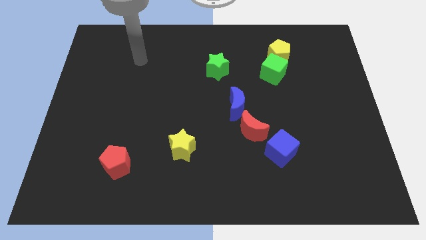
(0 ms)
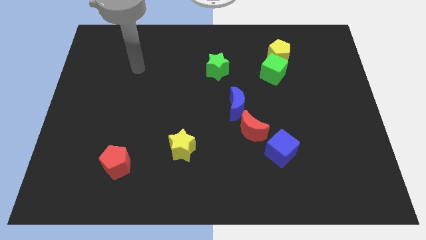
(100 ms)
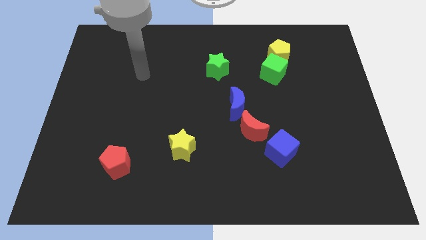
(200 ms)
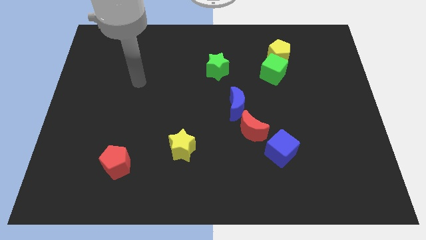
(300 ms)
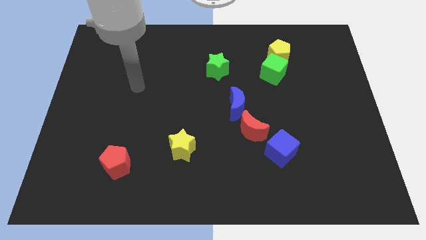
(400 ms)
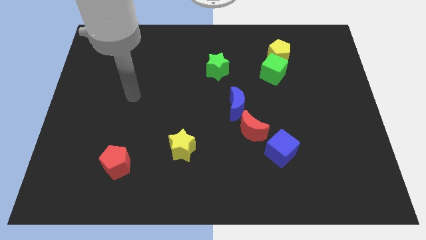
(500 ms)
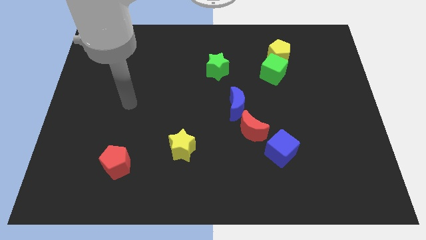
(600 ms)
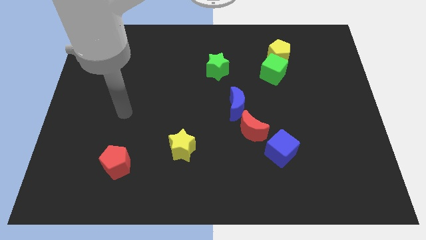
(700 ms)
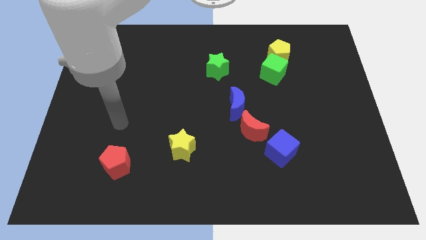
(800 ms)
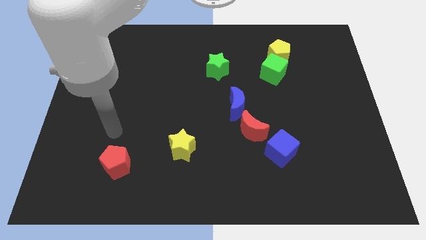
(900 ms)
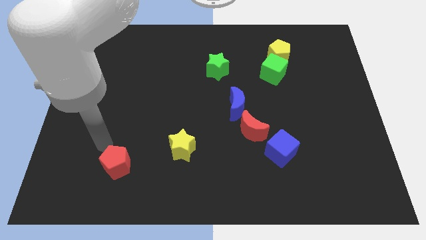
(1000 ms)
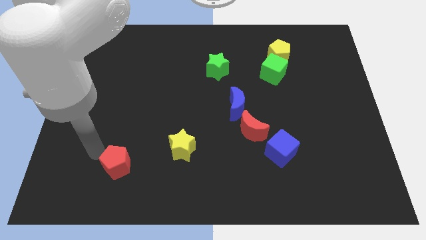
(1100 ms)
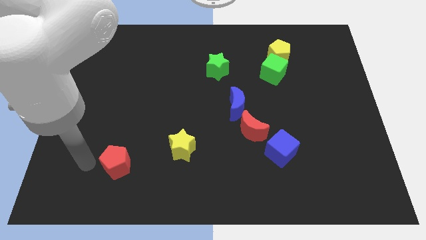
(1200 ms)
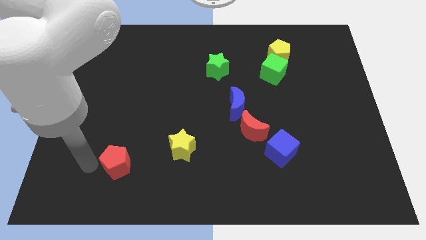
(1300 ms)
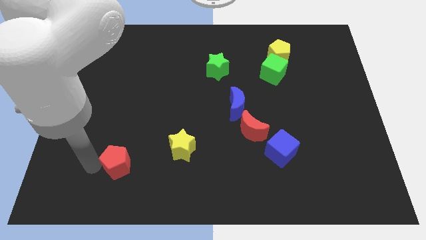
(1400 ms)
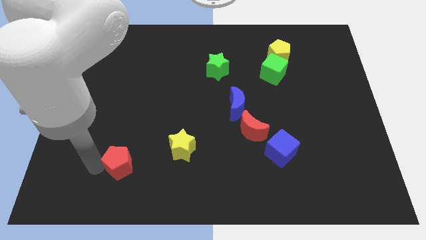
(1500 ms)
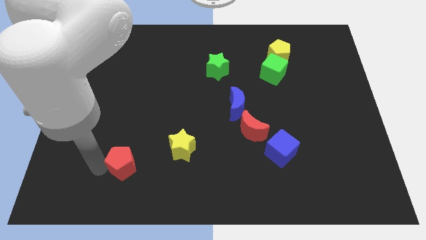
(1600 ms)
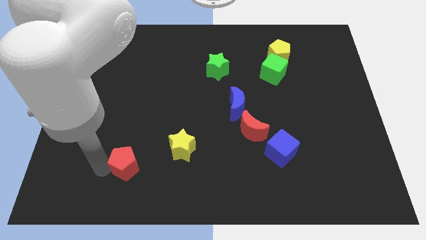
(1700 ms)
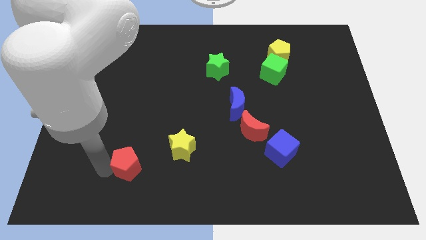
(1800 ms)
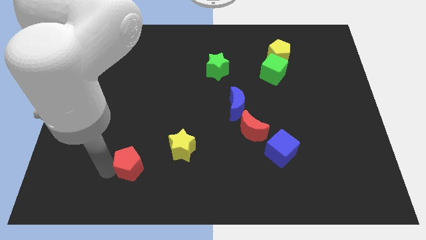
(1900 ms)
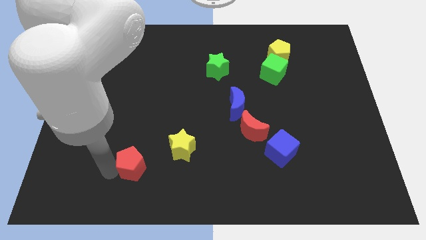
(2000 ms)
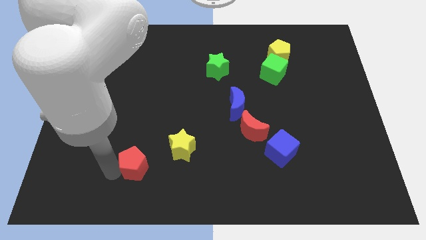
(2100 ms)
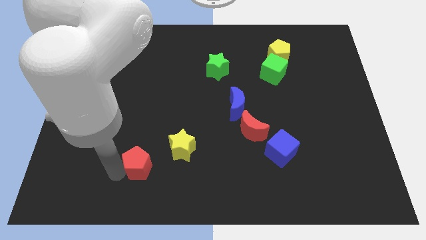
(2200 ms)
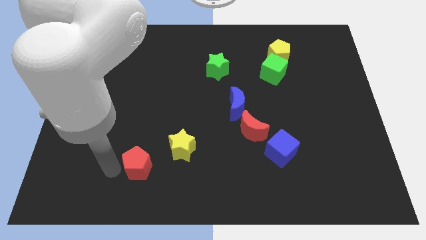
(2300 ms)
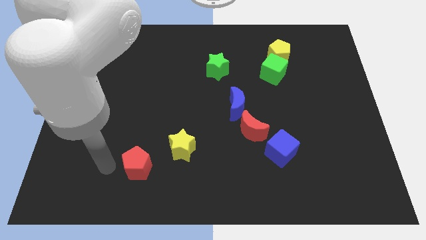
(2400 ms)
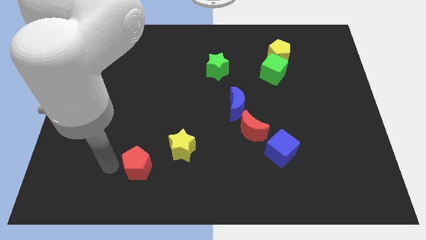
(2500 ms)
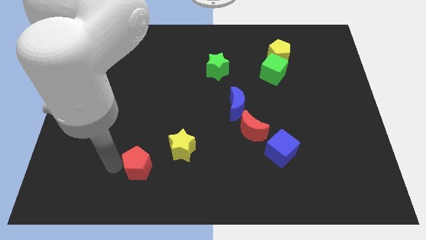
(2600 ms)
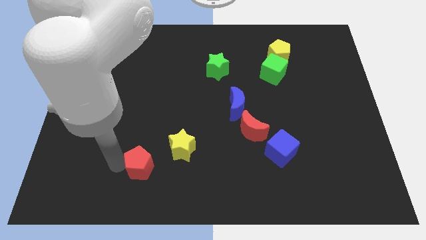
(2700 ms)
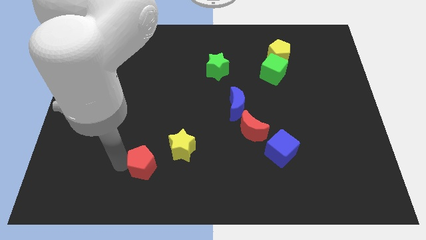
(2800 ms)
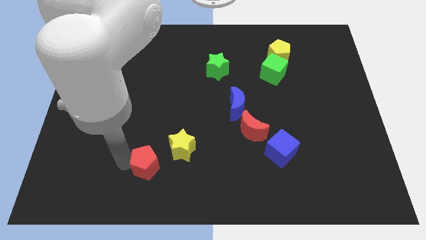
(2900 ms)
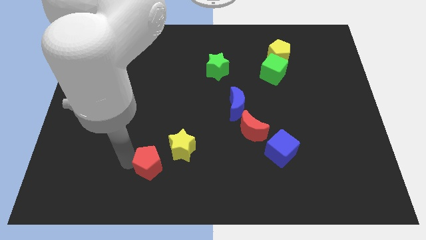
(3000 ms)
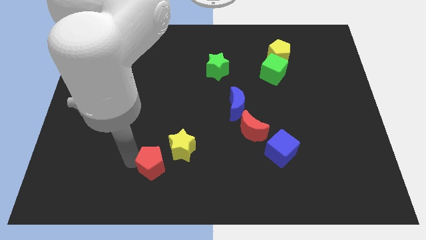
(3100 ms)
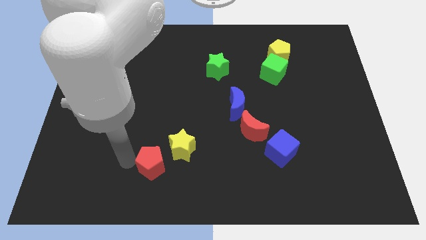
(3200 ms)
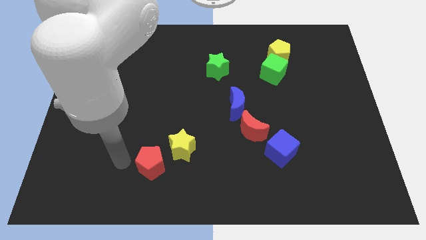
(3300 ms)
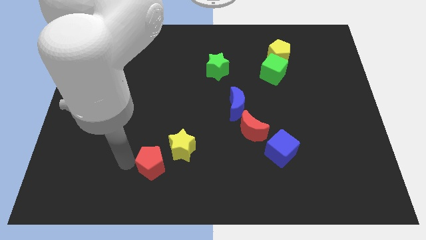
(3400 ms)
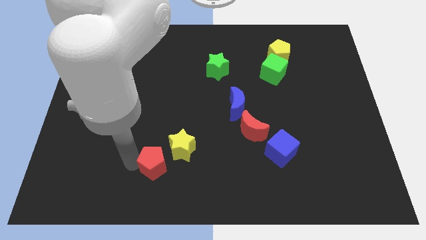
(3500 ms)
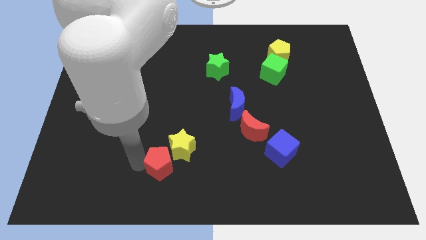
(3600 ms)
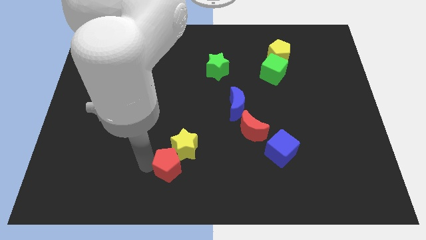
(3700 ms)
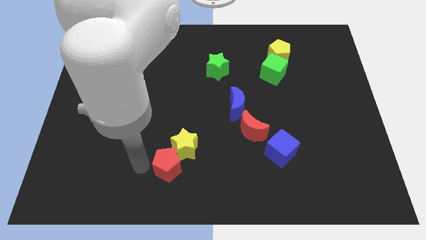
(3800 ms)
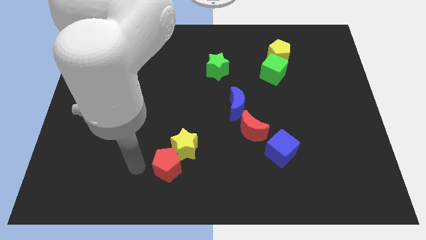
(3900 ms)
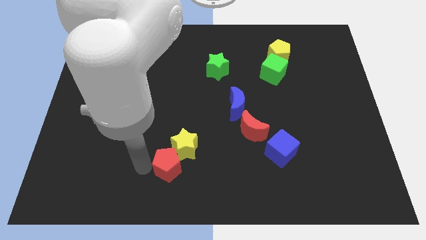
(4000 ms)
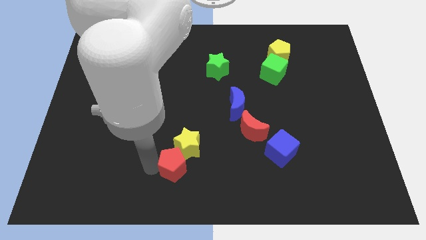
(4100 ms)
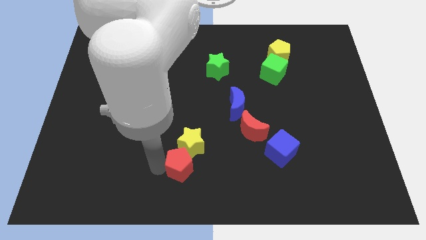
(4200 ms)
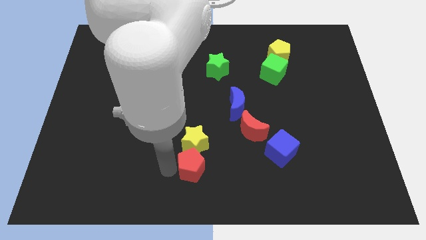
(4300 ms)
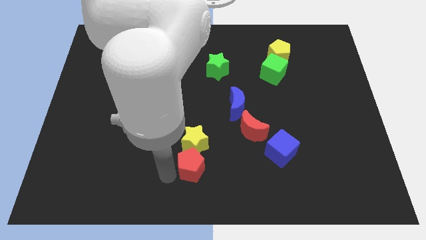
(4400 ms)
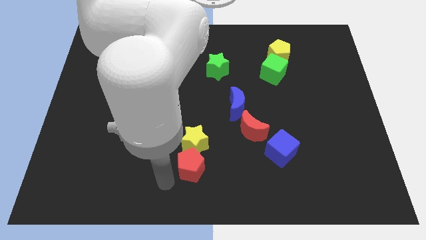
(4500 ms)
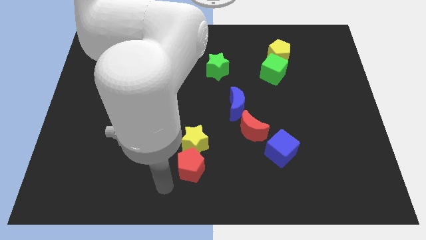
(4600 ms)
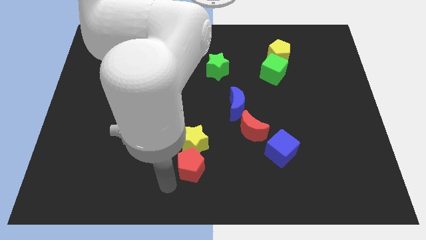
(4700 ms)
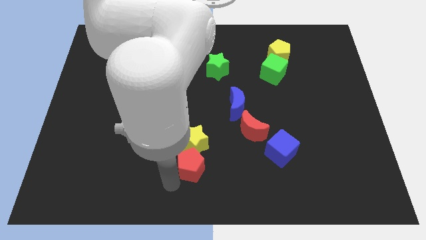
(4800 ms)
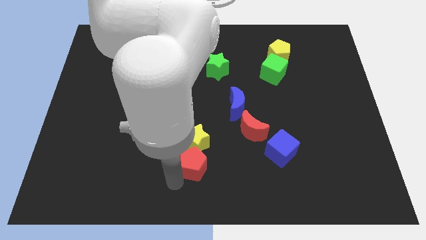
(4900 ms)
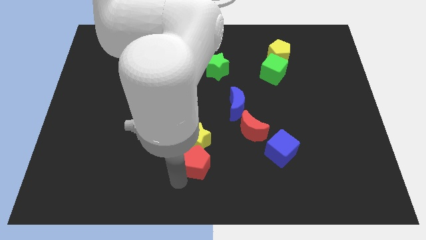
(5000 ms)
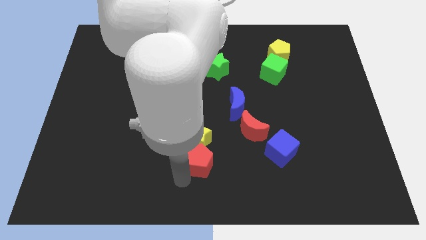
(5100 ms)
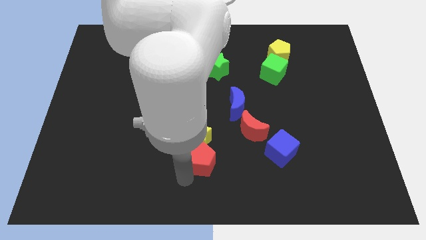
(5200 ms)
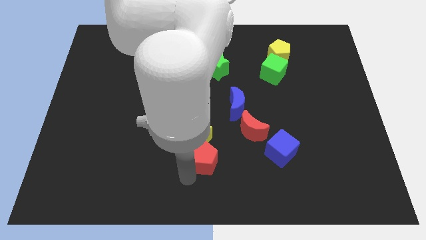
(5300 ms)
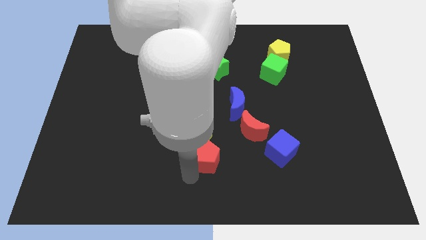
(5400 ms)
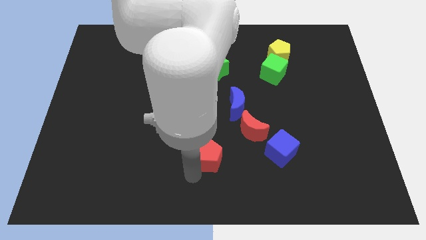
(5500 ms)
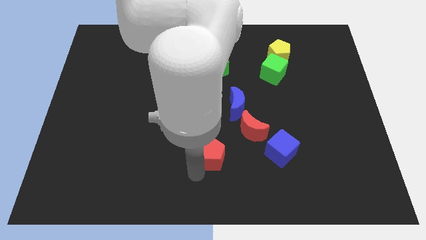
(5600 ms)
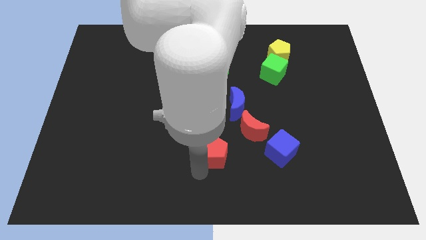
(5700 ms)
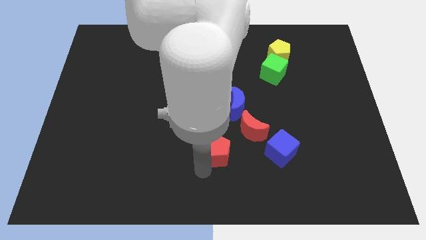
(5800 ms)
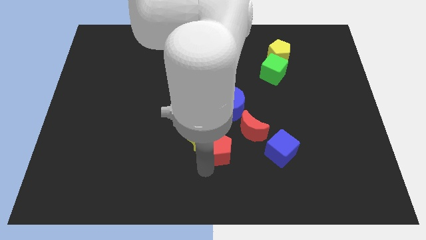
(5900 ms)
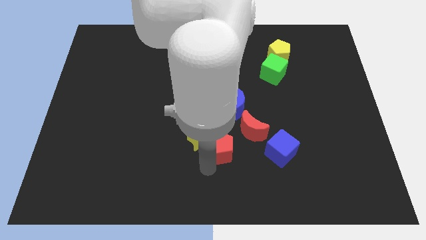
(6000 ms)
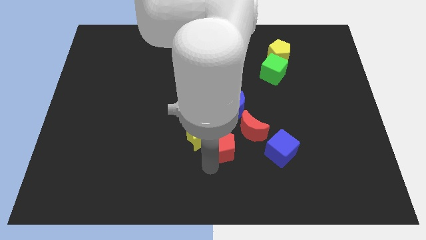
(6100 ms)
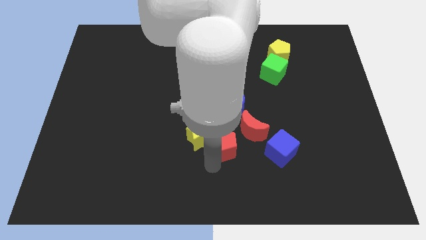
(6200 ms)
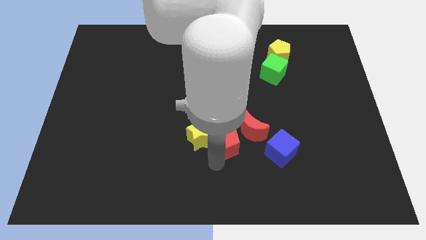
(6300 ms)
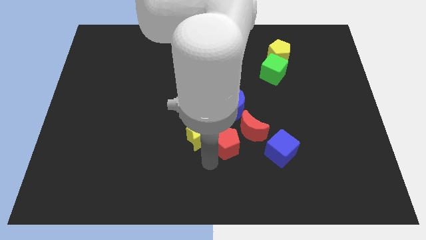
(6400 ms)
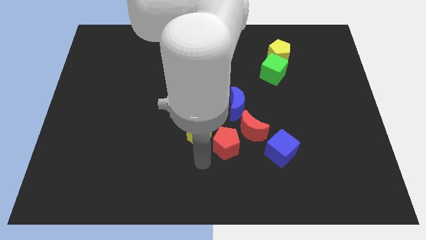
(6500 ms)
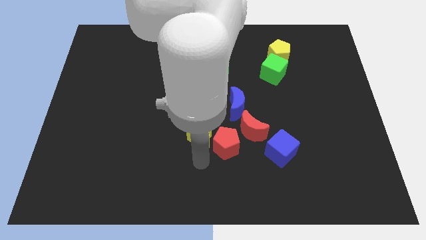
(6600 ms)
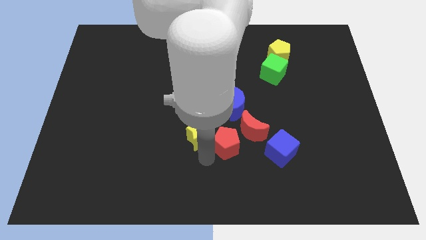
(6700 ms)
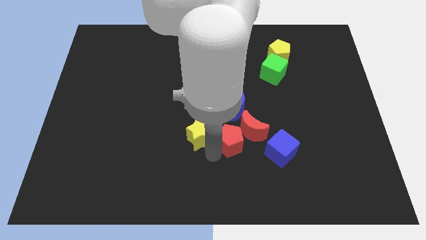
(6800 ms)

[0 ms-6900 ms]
move the red pentagon close to the red moon

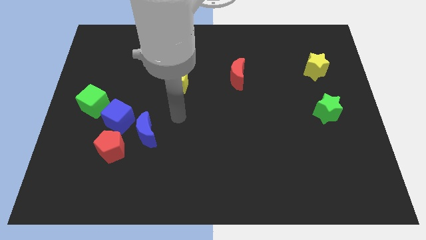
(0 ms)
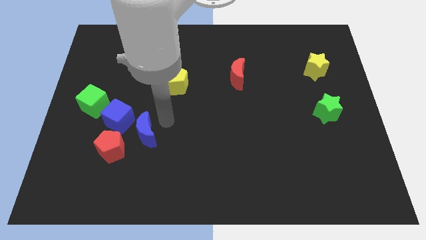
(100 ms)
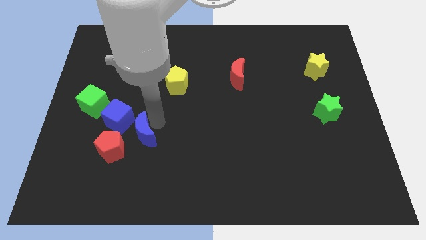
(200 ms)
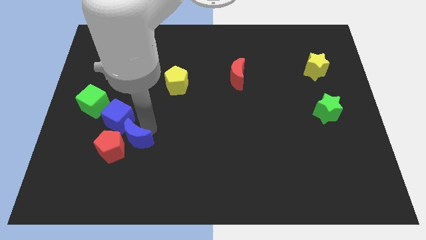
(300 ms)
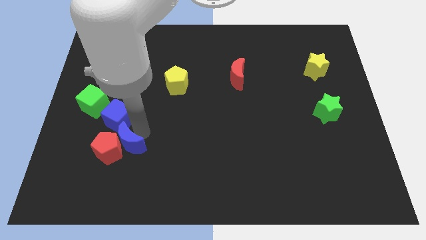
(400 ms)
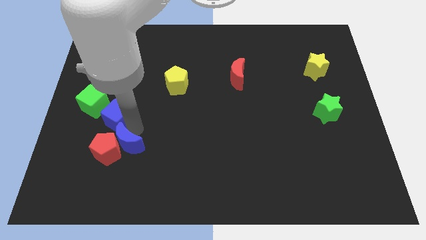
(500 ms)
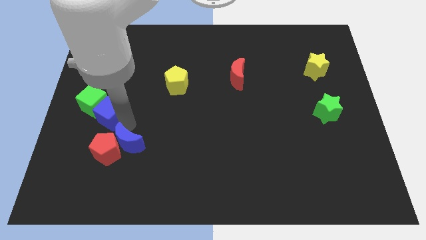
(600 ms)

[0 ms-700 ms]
push the blue cube close to the green cube
